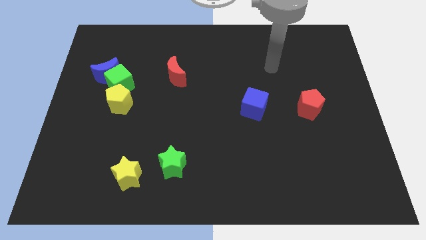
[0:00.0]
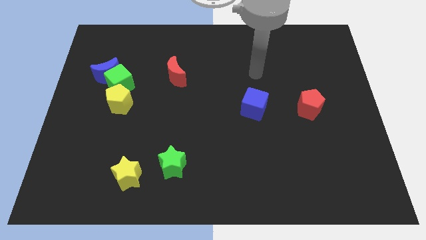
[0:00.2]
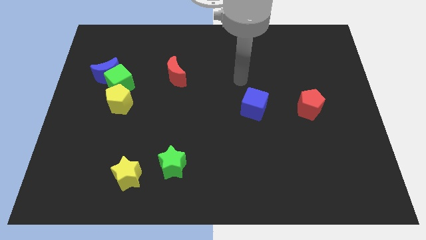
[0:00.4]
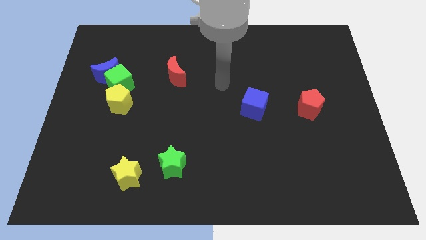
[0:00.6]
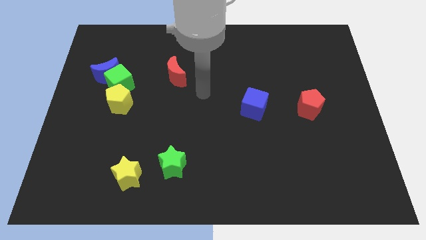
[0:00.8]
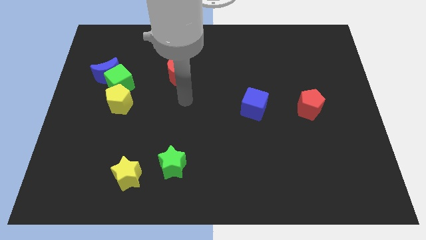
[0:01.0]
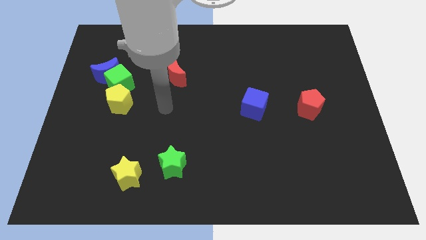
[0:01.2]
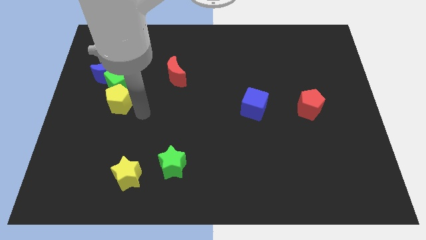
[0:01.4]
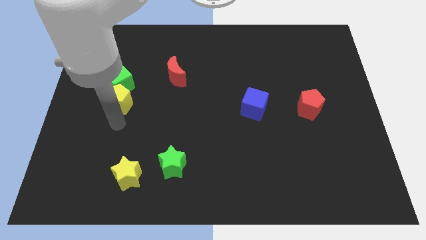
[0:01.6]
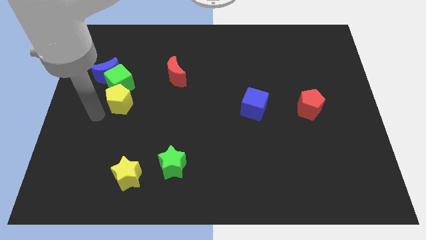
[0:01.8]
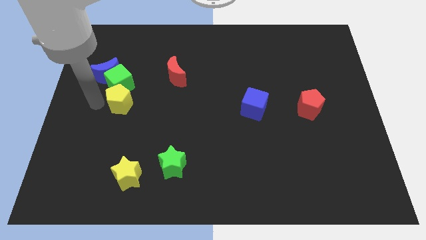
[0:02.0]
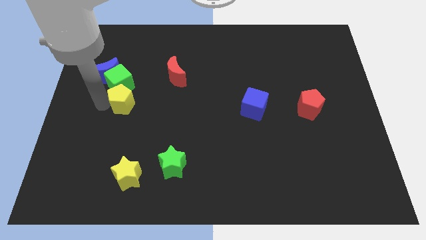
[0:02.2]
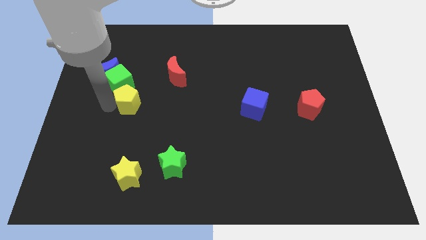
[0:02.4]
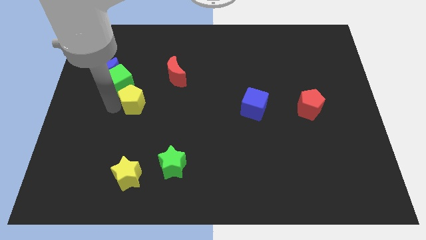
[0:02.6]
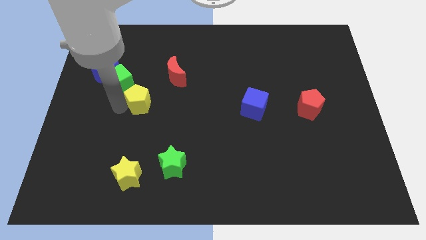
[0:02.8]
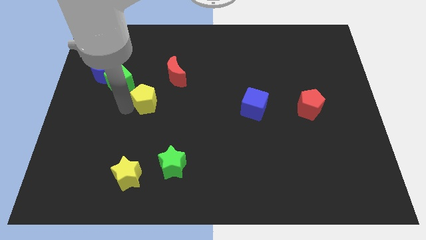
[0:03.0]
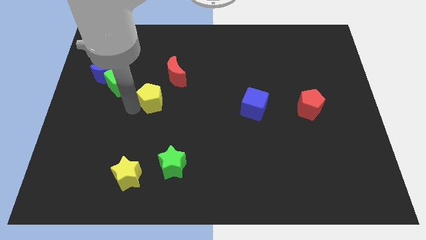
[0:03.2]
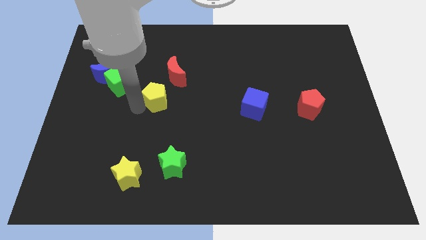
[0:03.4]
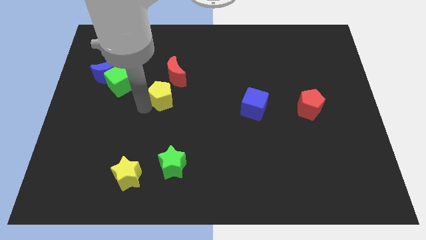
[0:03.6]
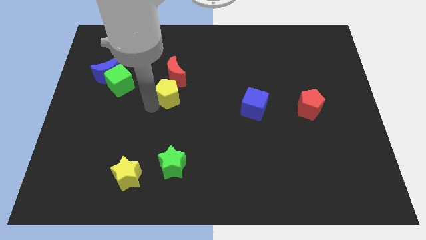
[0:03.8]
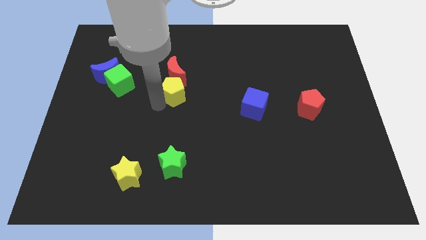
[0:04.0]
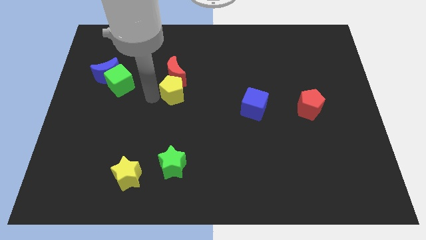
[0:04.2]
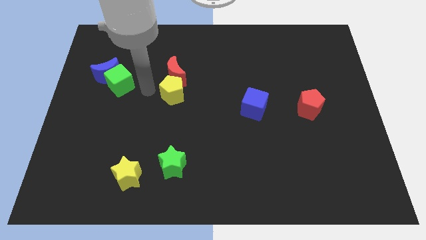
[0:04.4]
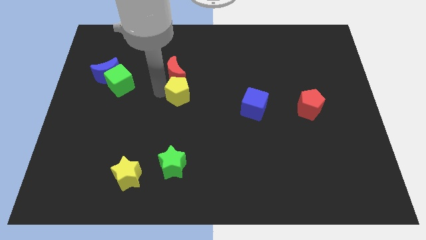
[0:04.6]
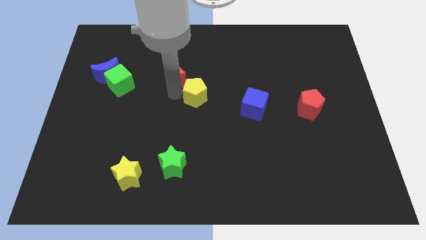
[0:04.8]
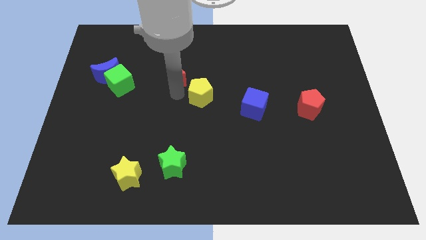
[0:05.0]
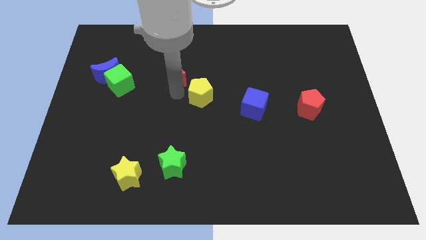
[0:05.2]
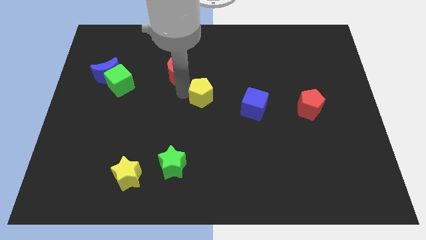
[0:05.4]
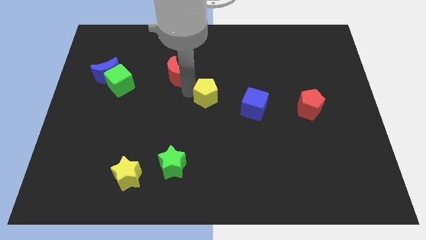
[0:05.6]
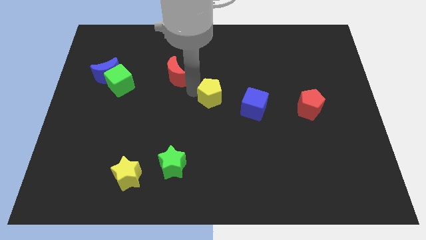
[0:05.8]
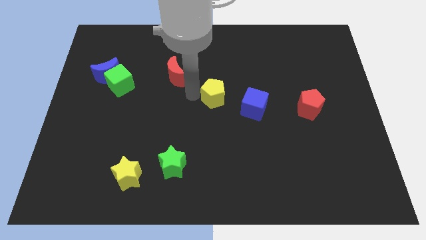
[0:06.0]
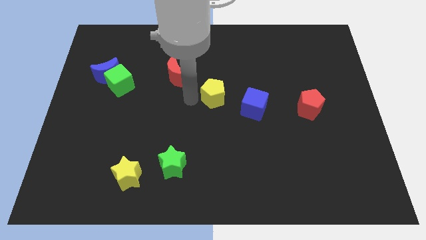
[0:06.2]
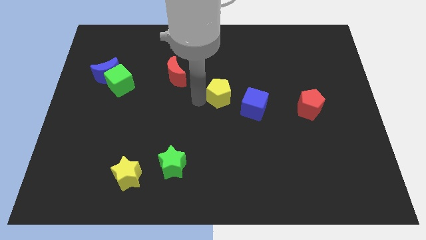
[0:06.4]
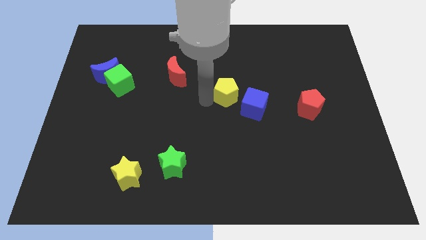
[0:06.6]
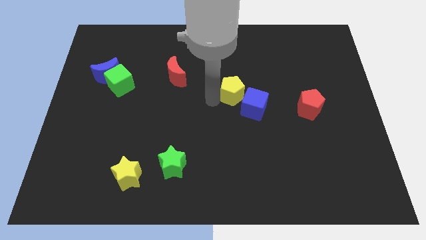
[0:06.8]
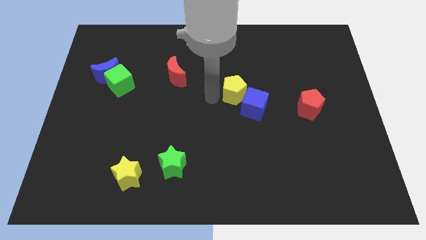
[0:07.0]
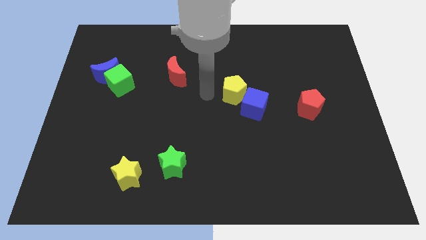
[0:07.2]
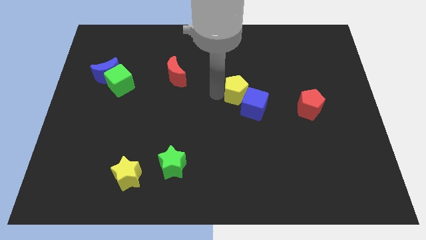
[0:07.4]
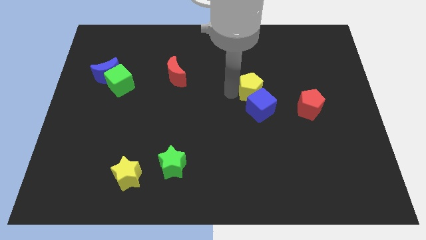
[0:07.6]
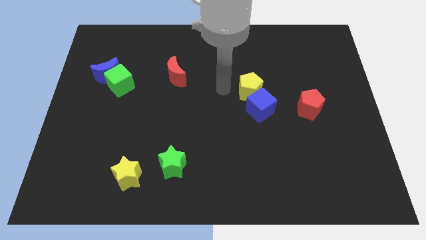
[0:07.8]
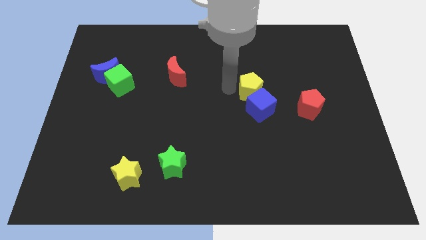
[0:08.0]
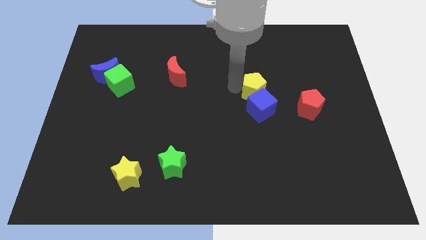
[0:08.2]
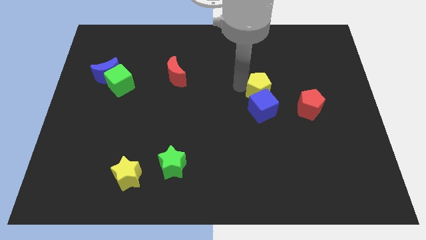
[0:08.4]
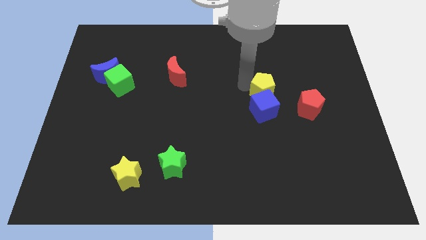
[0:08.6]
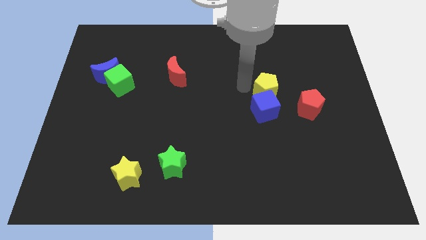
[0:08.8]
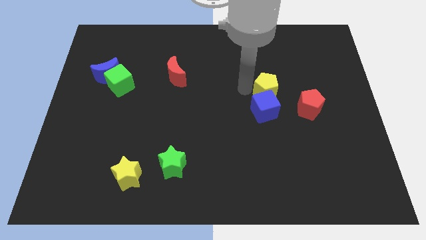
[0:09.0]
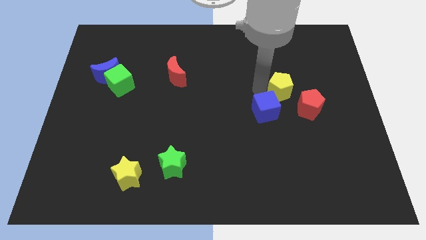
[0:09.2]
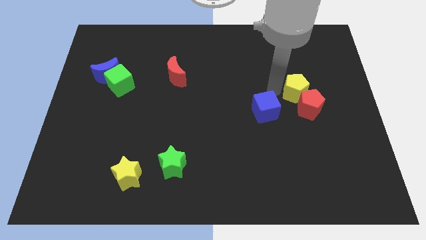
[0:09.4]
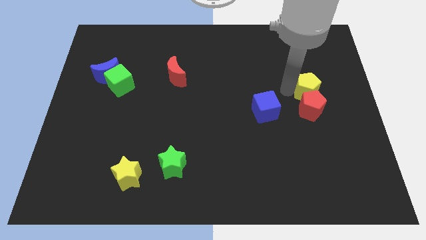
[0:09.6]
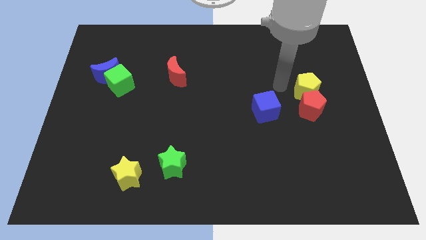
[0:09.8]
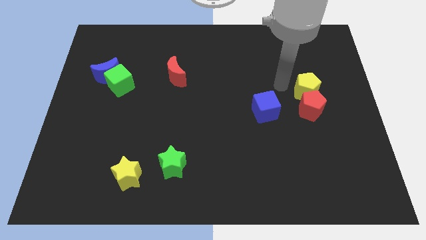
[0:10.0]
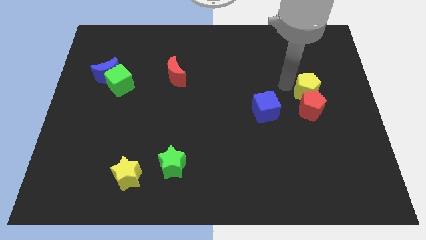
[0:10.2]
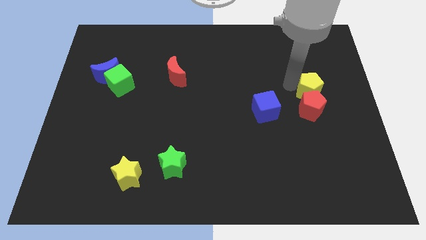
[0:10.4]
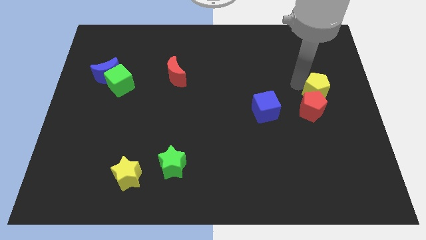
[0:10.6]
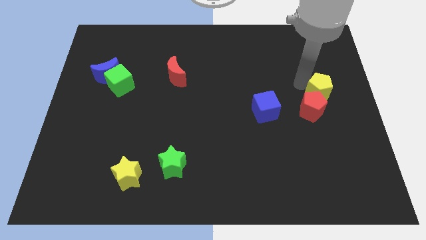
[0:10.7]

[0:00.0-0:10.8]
move the yellow pentagon to the right side of the board
